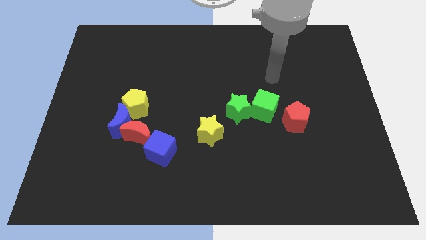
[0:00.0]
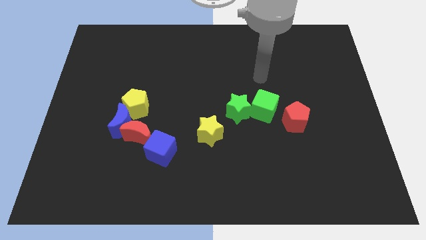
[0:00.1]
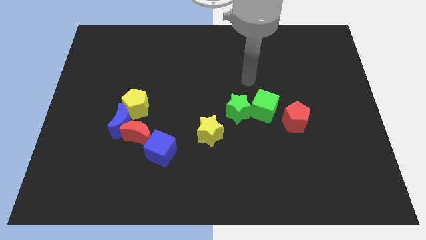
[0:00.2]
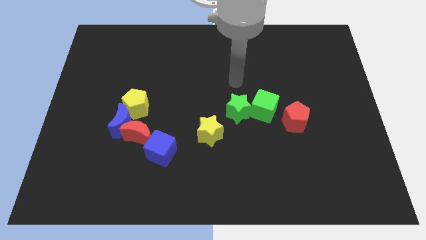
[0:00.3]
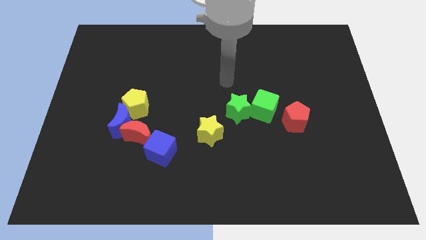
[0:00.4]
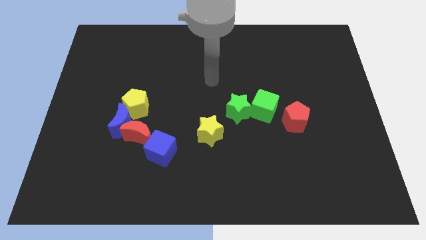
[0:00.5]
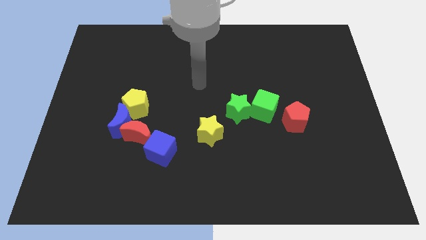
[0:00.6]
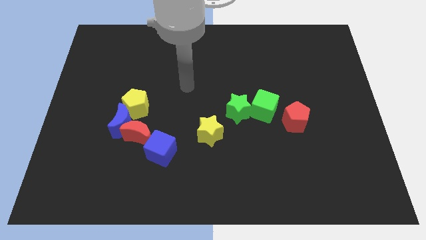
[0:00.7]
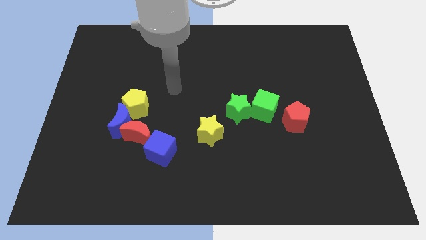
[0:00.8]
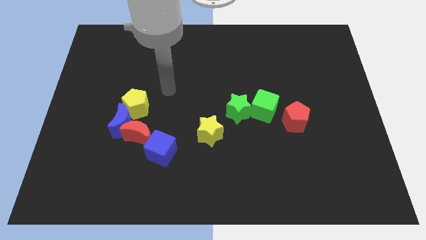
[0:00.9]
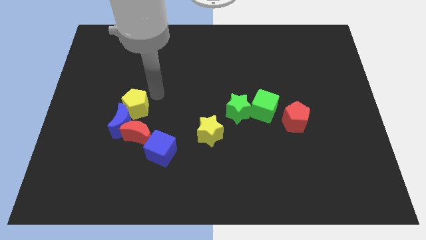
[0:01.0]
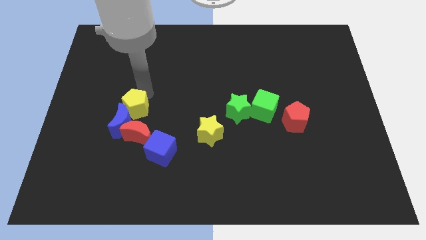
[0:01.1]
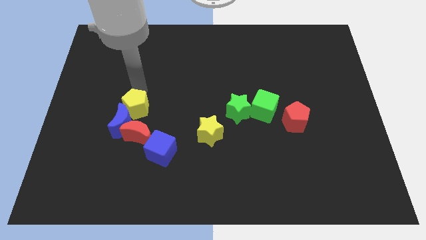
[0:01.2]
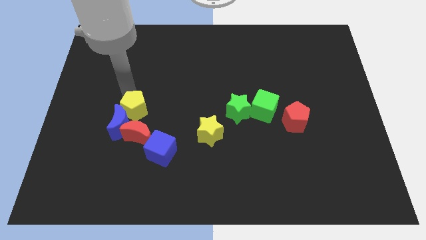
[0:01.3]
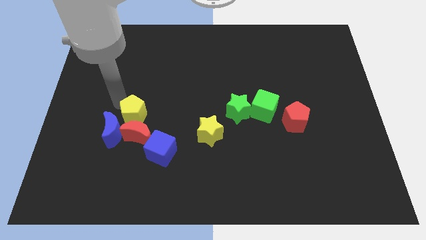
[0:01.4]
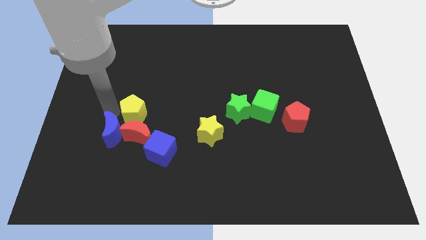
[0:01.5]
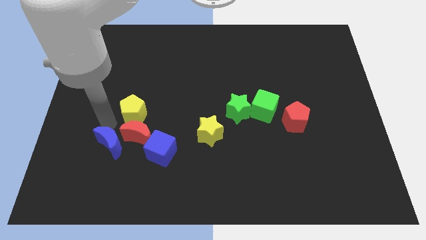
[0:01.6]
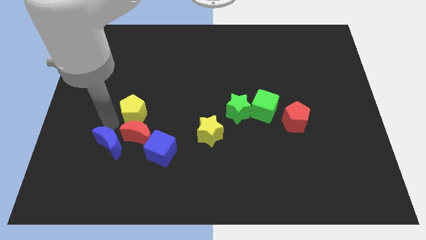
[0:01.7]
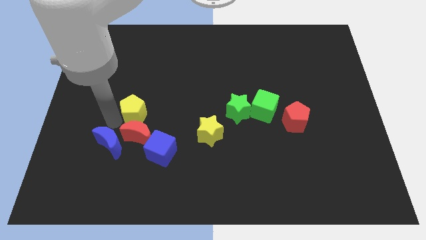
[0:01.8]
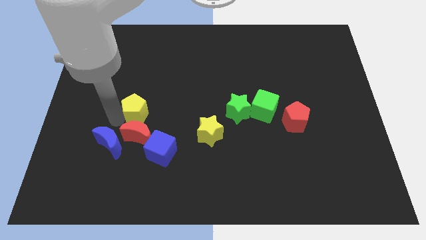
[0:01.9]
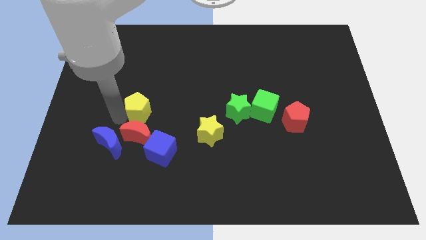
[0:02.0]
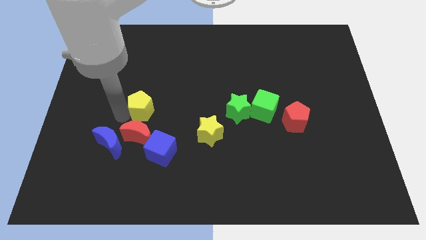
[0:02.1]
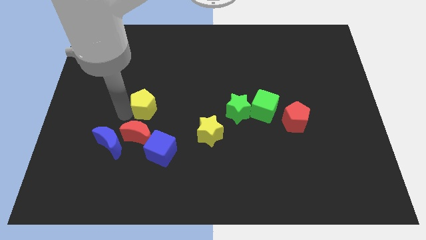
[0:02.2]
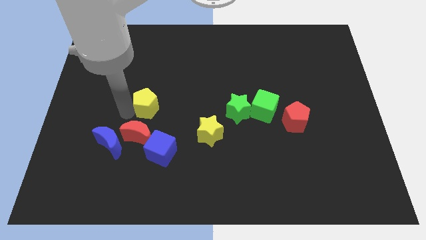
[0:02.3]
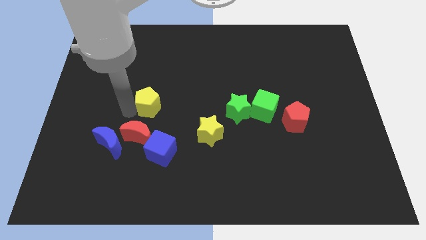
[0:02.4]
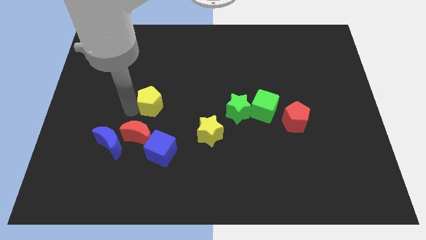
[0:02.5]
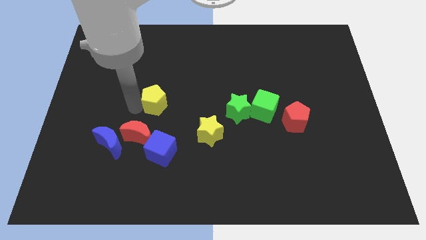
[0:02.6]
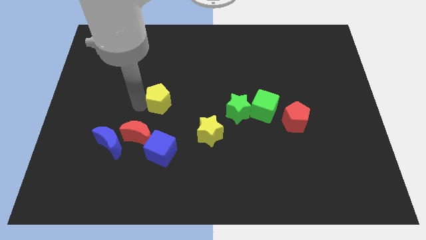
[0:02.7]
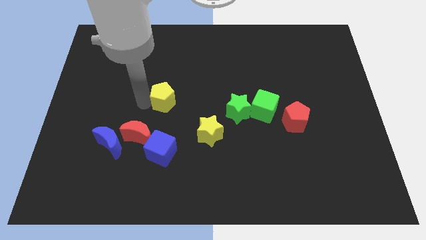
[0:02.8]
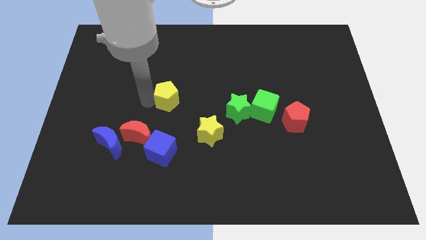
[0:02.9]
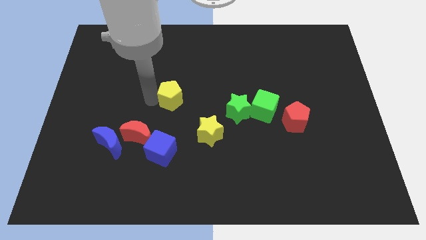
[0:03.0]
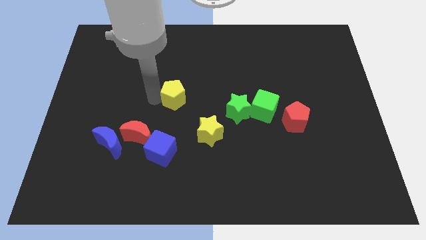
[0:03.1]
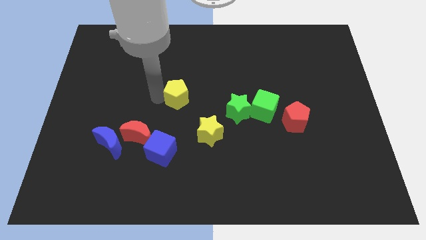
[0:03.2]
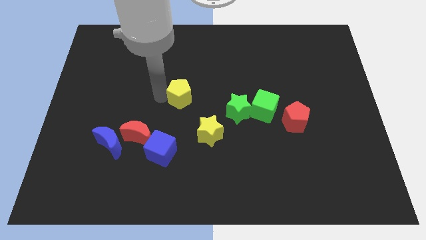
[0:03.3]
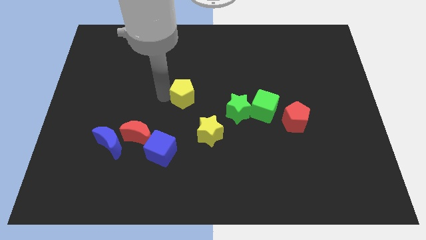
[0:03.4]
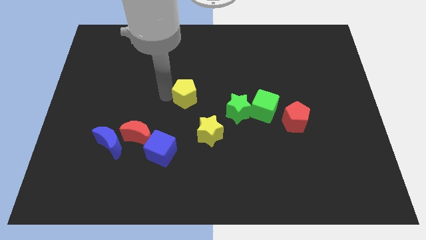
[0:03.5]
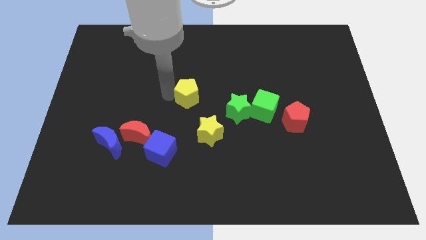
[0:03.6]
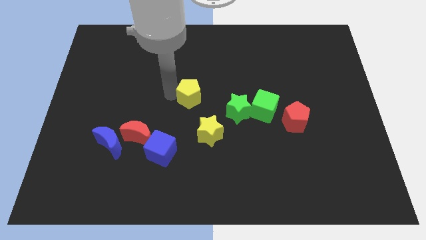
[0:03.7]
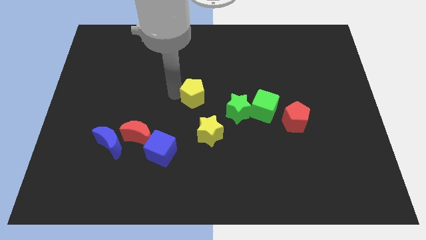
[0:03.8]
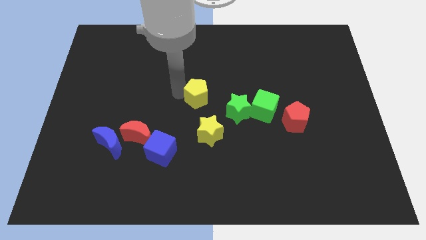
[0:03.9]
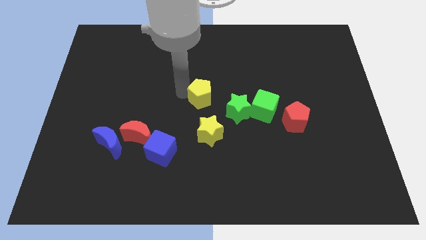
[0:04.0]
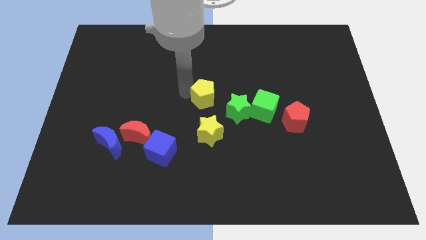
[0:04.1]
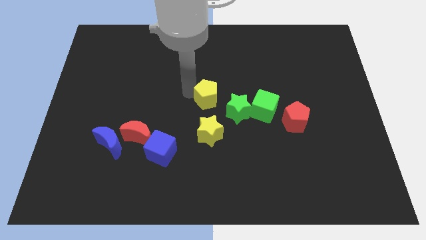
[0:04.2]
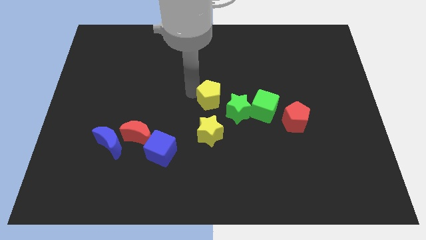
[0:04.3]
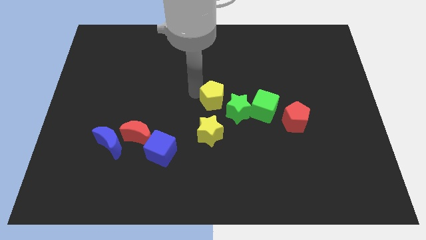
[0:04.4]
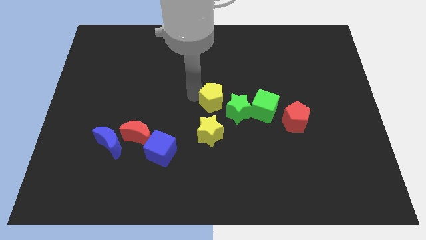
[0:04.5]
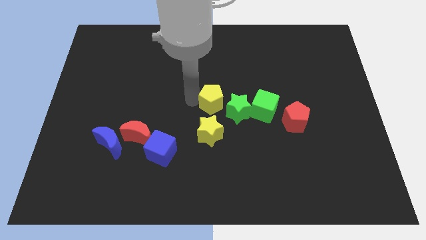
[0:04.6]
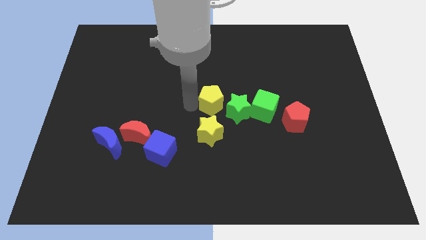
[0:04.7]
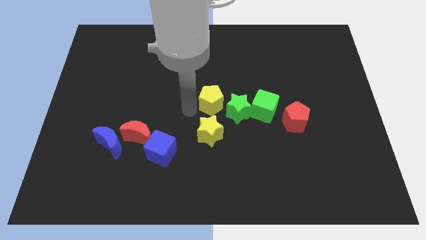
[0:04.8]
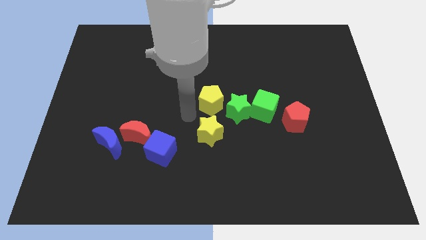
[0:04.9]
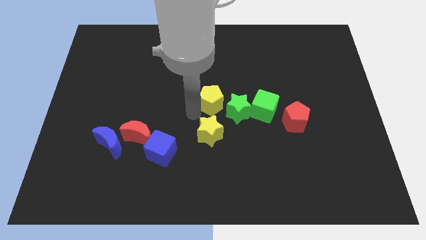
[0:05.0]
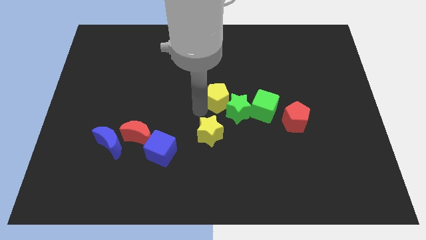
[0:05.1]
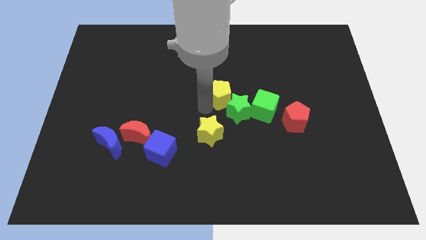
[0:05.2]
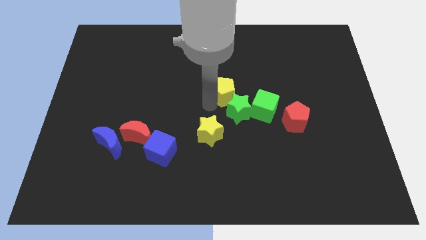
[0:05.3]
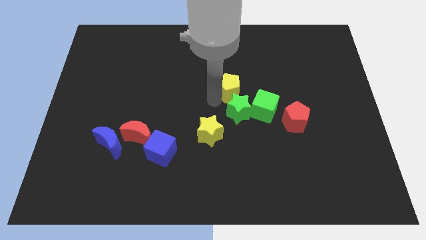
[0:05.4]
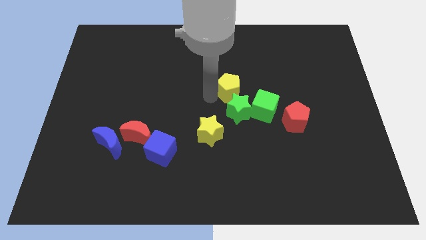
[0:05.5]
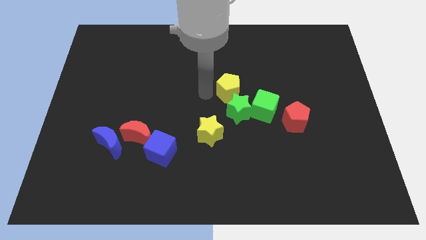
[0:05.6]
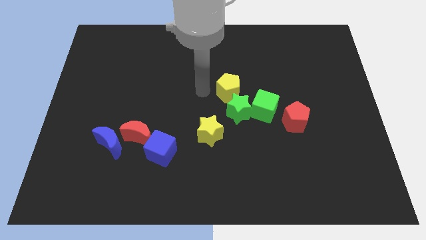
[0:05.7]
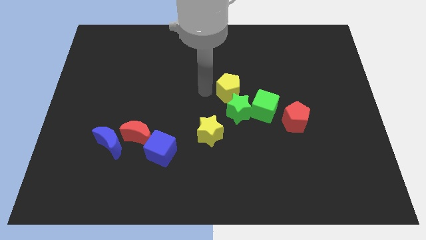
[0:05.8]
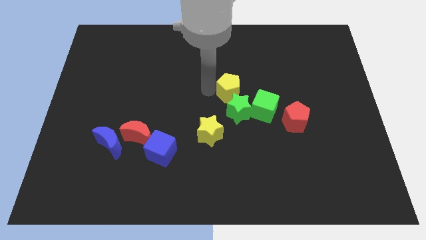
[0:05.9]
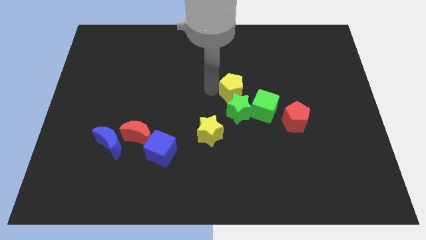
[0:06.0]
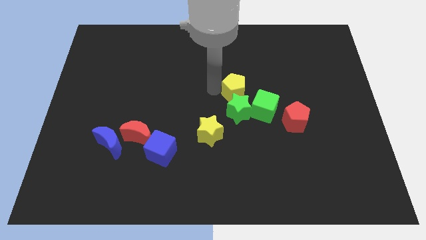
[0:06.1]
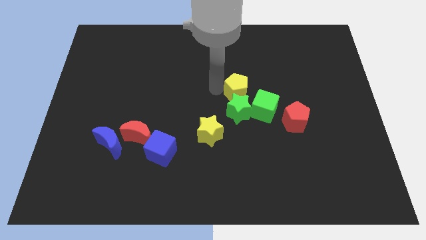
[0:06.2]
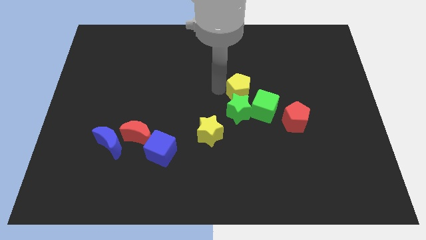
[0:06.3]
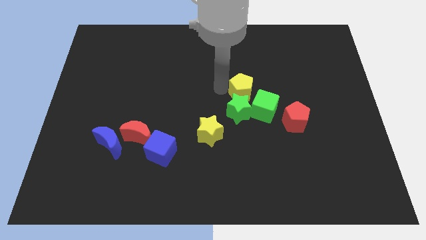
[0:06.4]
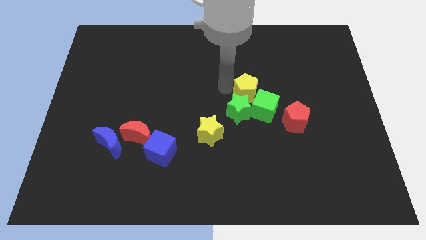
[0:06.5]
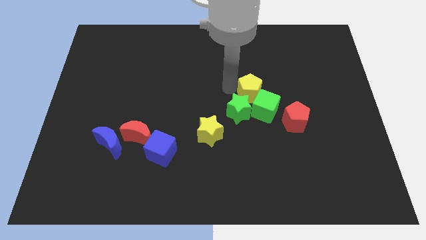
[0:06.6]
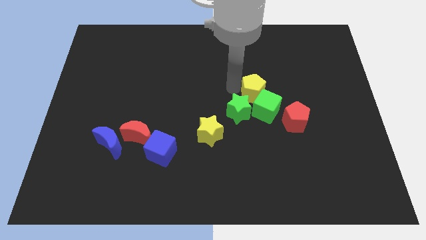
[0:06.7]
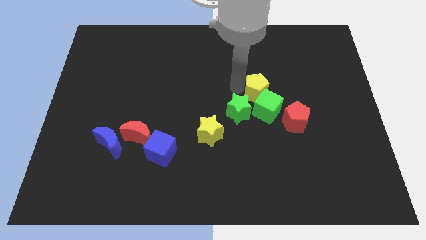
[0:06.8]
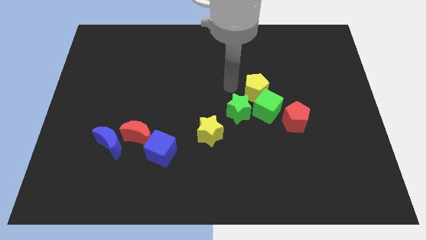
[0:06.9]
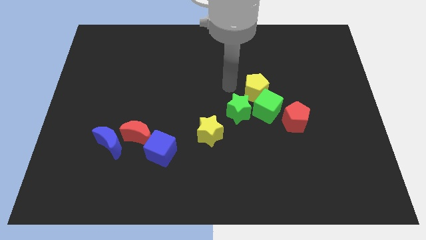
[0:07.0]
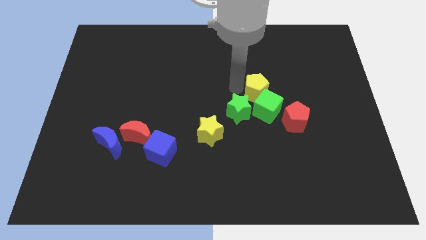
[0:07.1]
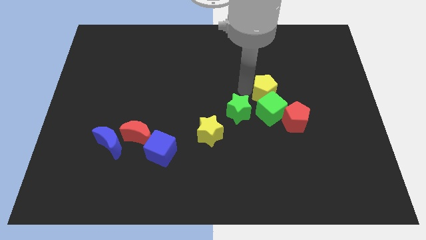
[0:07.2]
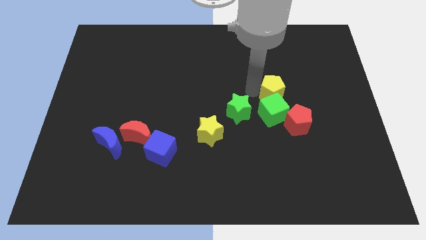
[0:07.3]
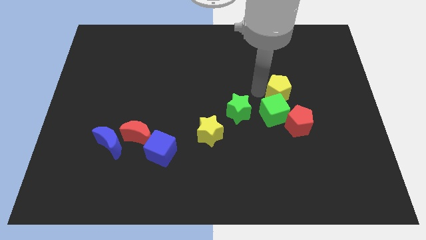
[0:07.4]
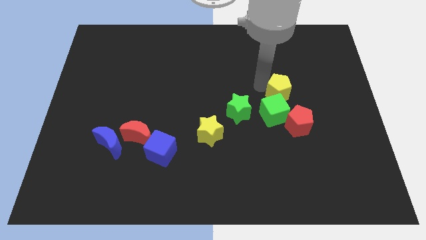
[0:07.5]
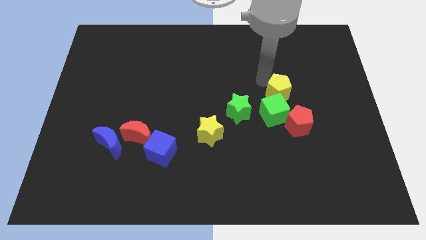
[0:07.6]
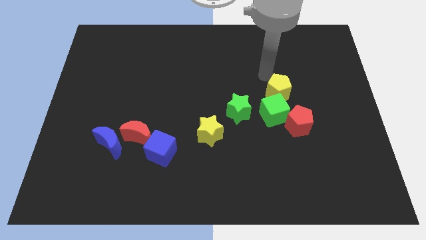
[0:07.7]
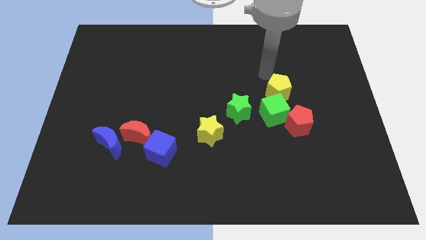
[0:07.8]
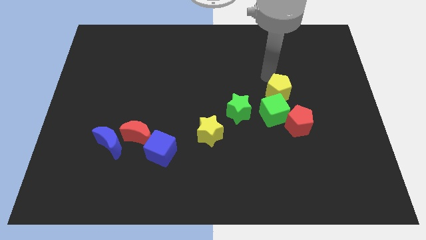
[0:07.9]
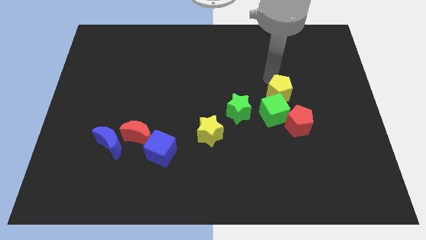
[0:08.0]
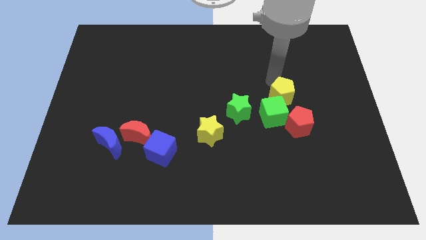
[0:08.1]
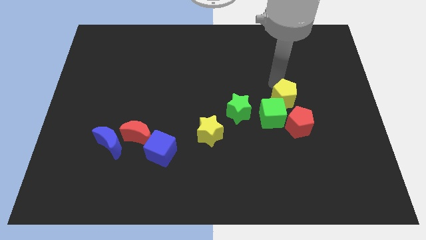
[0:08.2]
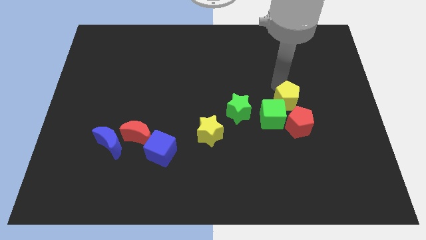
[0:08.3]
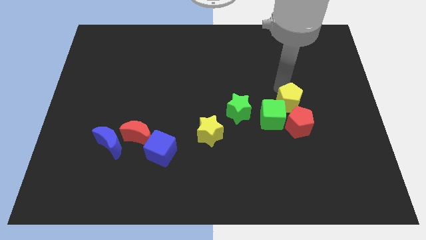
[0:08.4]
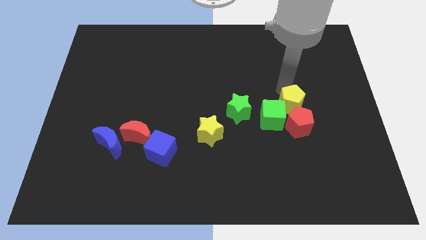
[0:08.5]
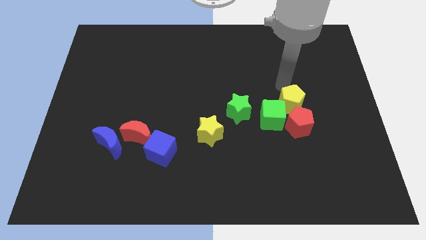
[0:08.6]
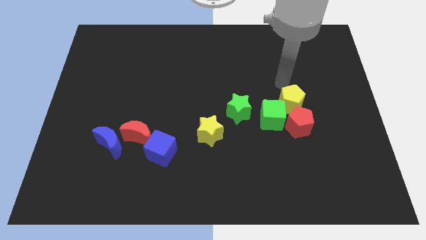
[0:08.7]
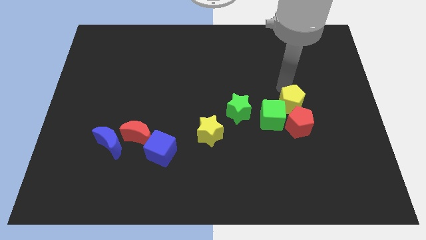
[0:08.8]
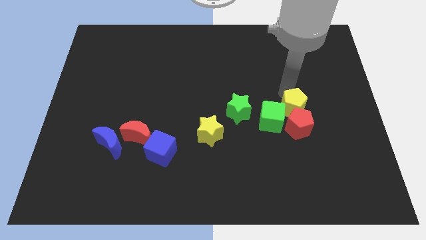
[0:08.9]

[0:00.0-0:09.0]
slide the yellow pentagon next to the red pentagon
